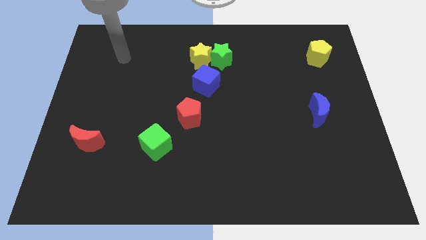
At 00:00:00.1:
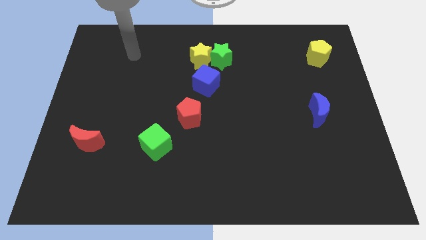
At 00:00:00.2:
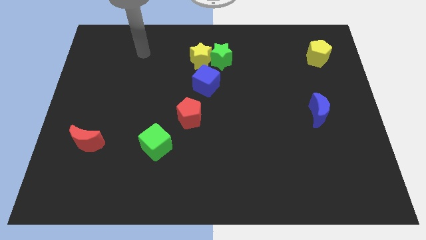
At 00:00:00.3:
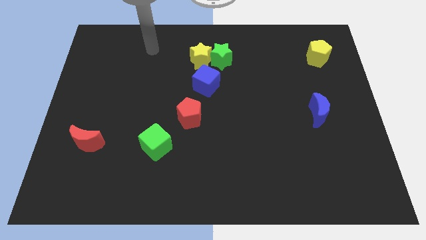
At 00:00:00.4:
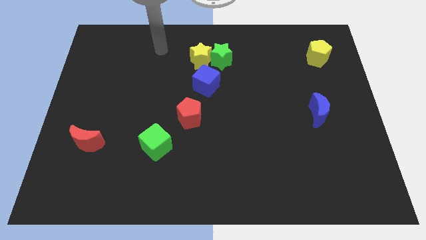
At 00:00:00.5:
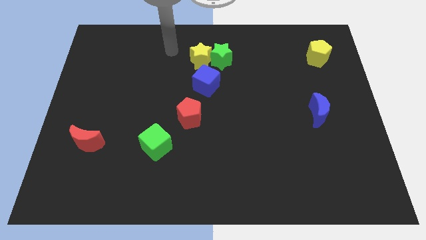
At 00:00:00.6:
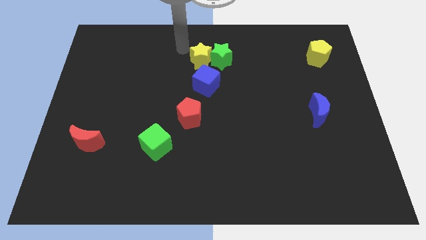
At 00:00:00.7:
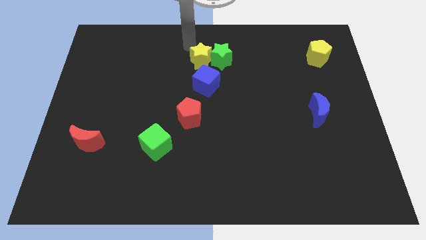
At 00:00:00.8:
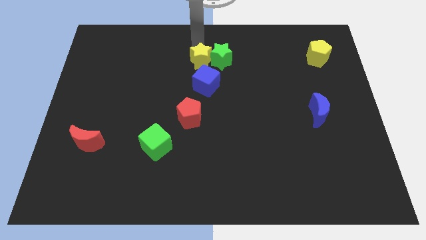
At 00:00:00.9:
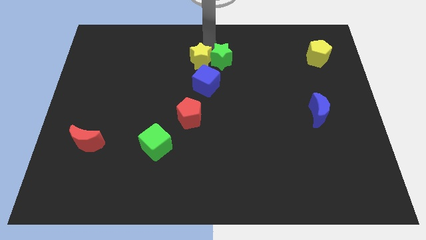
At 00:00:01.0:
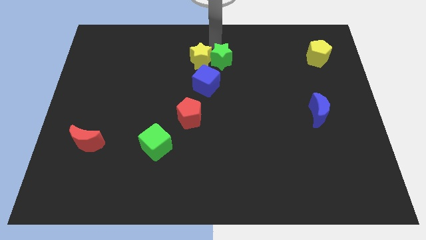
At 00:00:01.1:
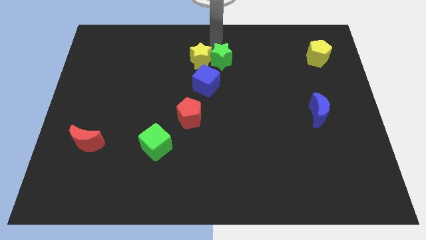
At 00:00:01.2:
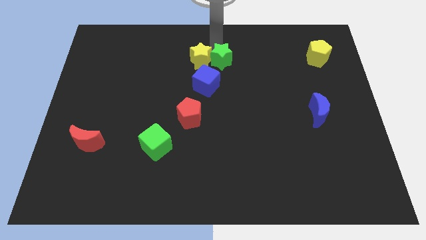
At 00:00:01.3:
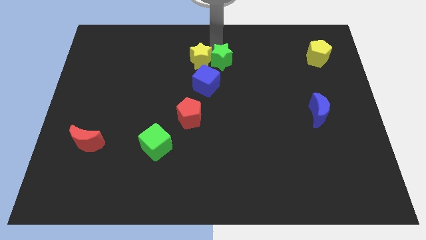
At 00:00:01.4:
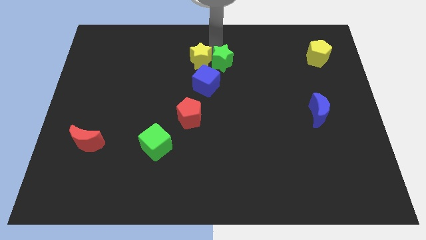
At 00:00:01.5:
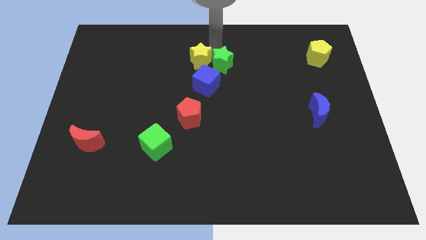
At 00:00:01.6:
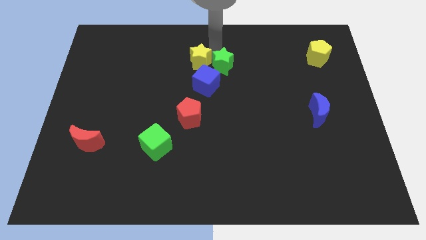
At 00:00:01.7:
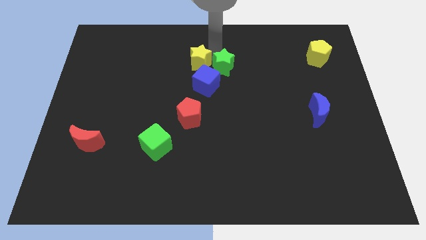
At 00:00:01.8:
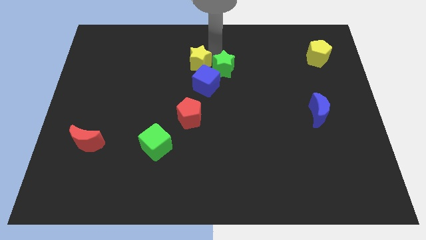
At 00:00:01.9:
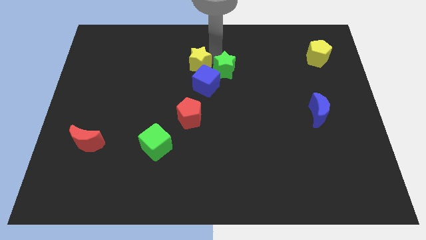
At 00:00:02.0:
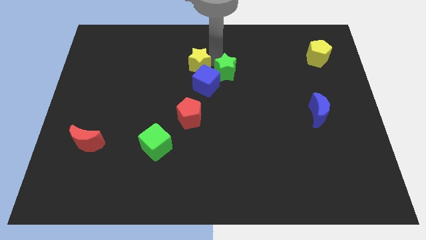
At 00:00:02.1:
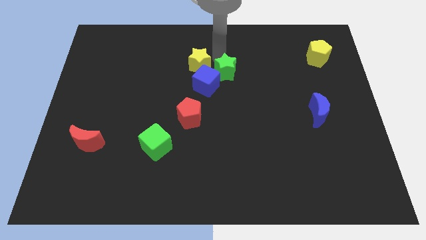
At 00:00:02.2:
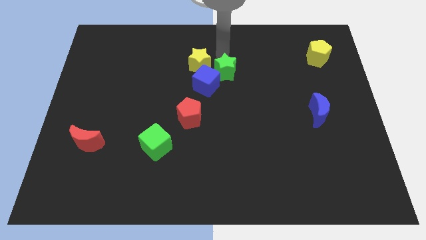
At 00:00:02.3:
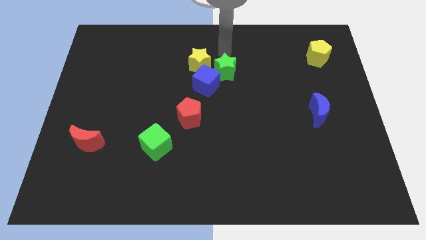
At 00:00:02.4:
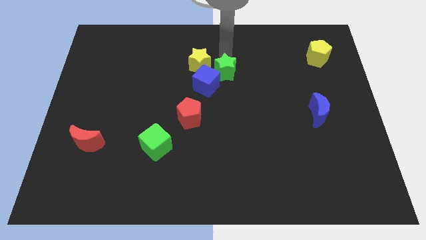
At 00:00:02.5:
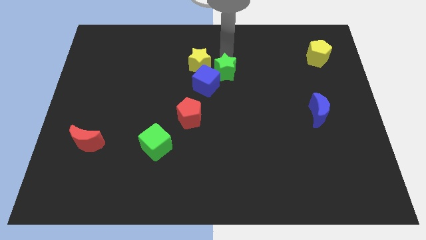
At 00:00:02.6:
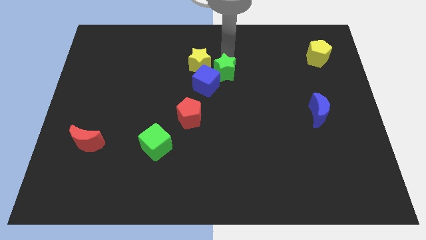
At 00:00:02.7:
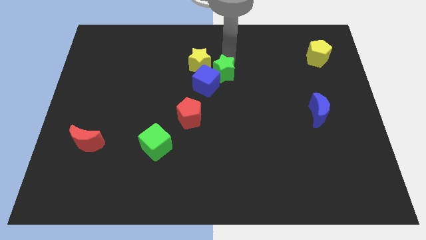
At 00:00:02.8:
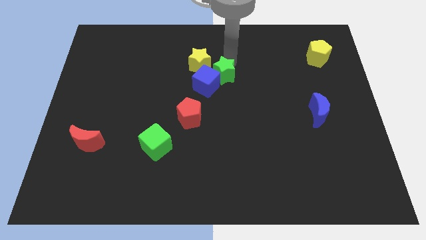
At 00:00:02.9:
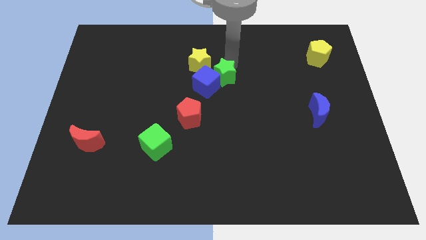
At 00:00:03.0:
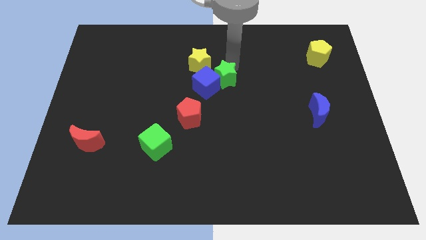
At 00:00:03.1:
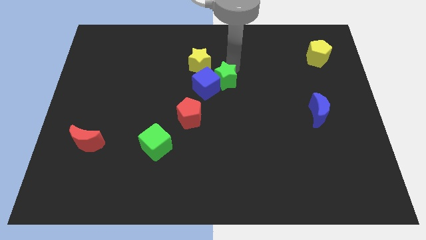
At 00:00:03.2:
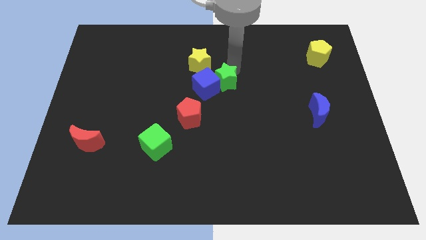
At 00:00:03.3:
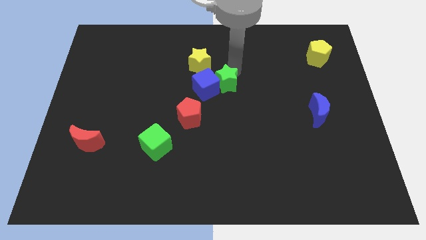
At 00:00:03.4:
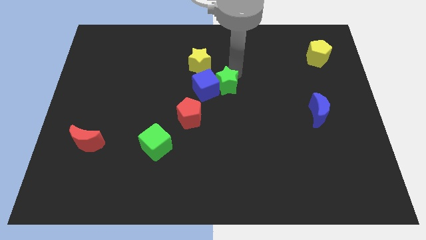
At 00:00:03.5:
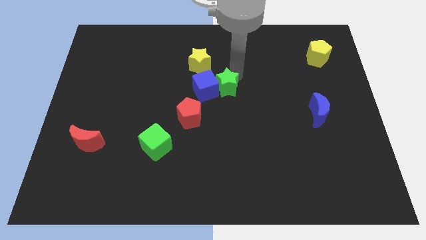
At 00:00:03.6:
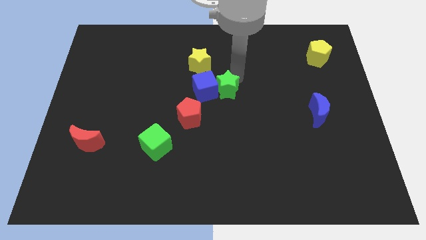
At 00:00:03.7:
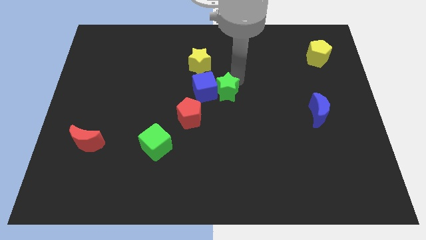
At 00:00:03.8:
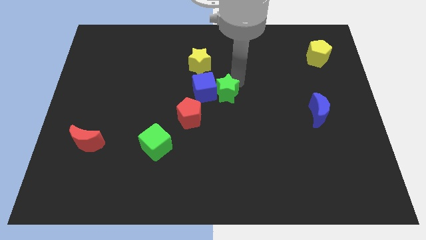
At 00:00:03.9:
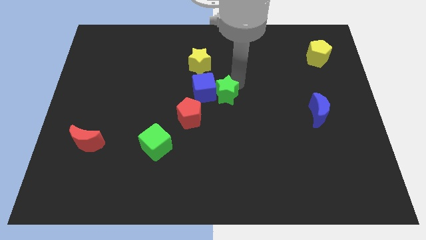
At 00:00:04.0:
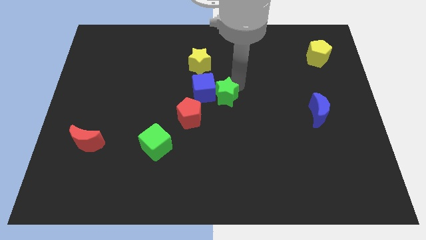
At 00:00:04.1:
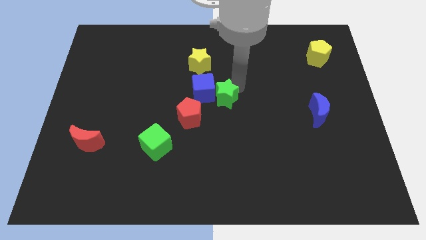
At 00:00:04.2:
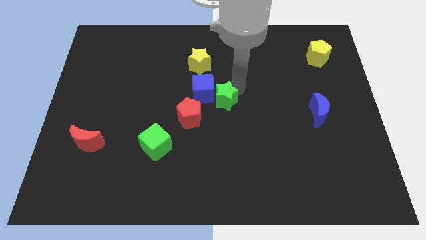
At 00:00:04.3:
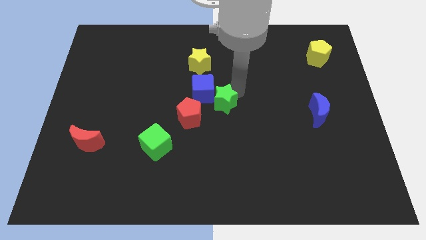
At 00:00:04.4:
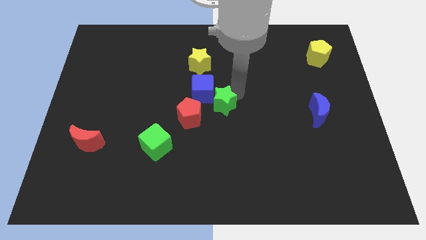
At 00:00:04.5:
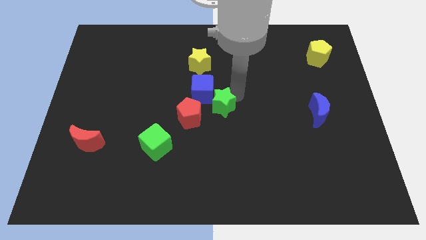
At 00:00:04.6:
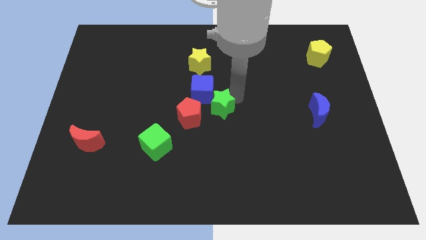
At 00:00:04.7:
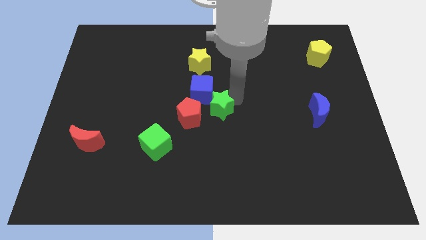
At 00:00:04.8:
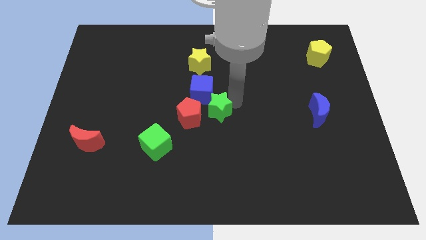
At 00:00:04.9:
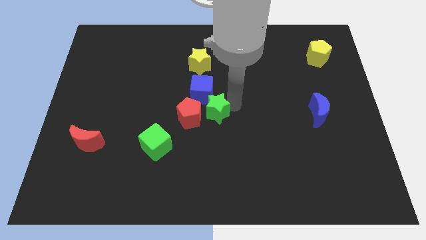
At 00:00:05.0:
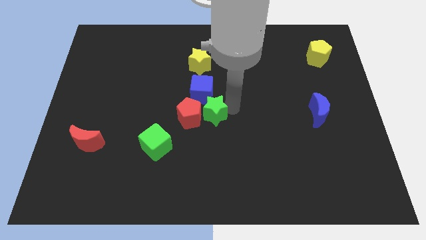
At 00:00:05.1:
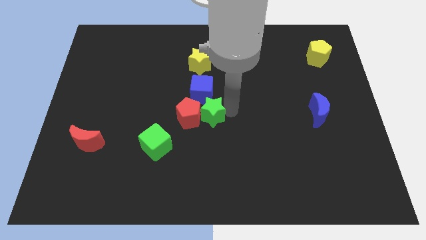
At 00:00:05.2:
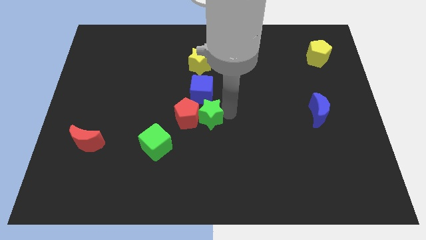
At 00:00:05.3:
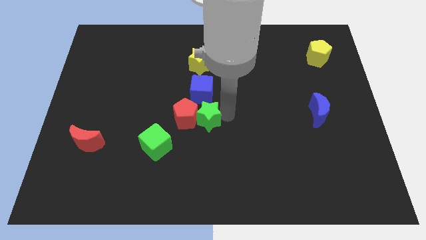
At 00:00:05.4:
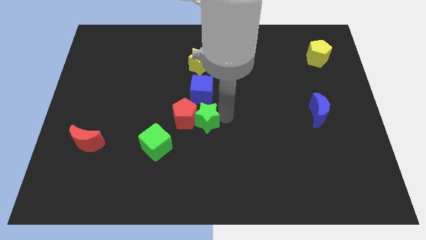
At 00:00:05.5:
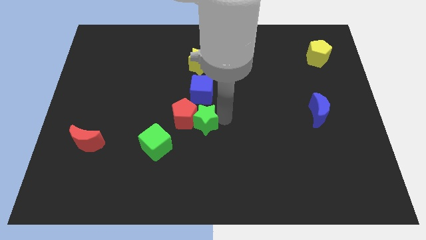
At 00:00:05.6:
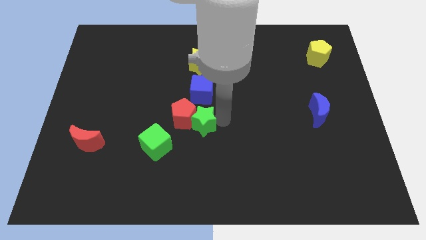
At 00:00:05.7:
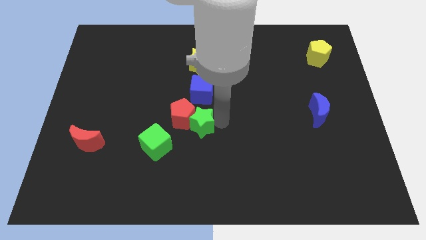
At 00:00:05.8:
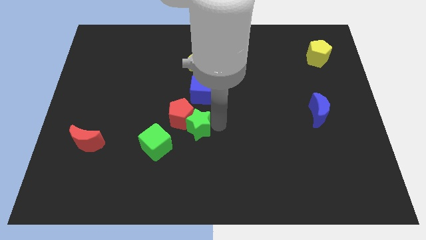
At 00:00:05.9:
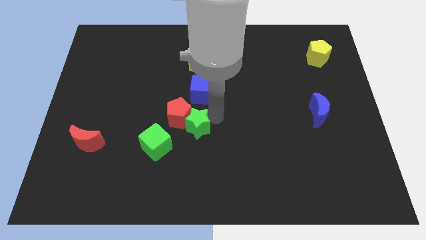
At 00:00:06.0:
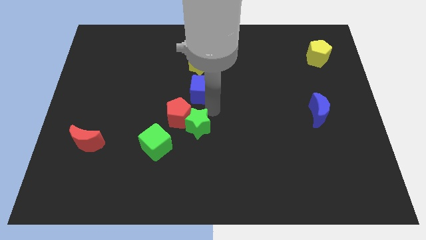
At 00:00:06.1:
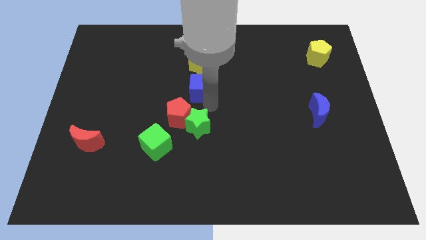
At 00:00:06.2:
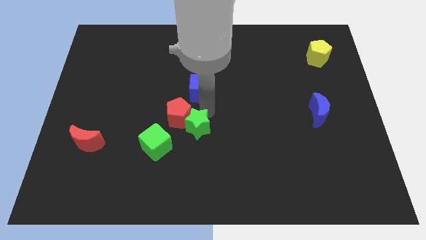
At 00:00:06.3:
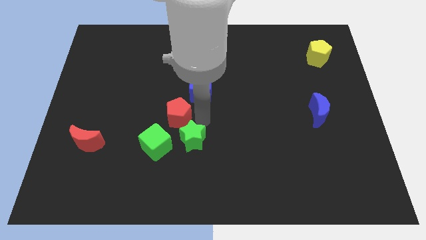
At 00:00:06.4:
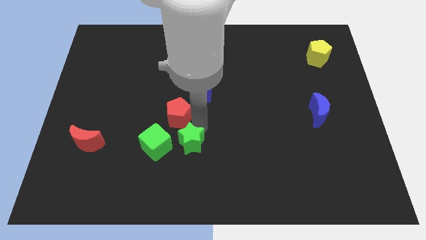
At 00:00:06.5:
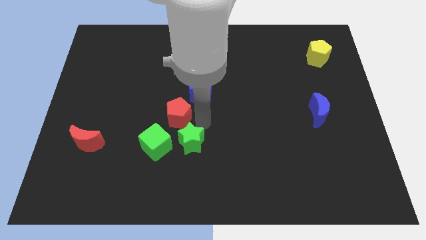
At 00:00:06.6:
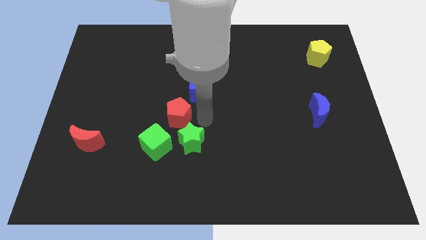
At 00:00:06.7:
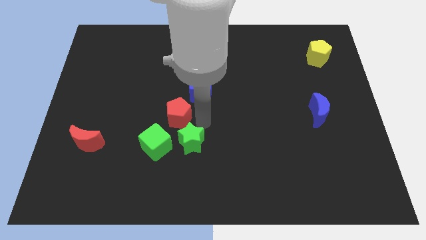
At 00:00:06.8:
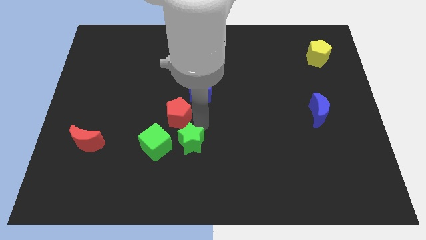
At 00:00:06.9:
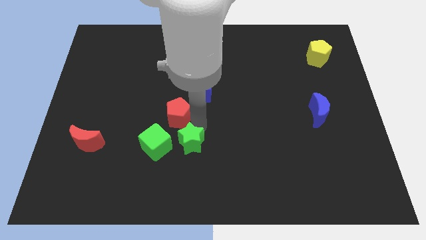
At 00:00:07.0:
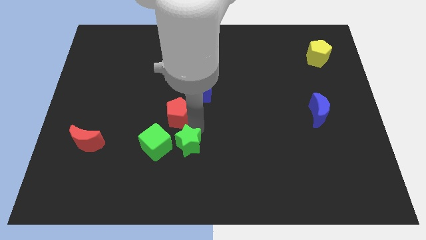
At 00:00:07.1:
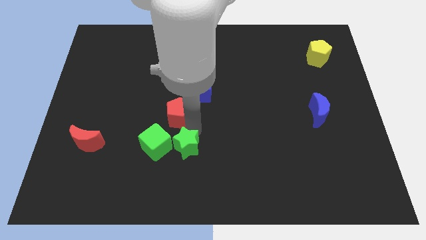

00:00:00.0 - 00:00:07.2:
push the green star to the bottom right side of the green cube
